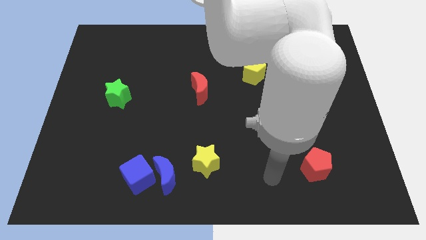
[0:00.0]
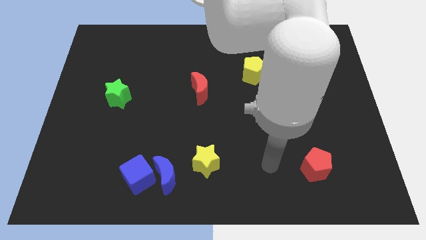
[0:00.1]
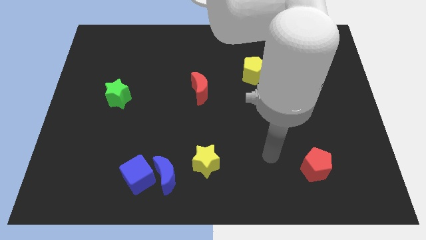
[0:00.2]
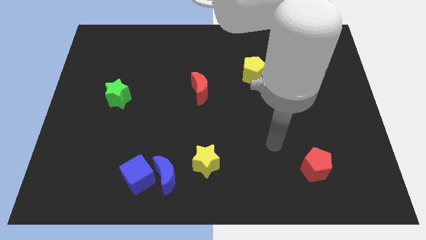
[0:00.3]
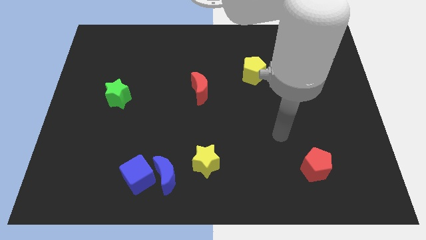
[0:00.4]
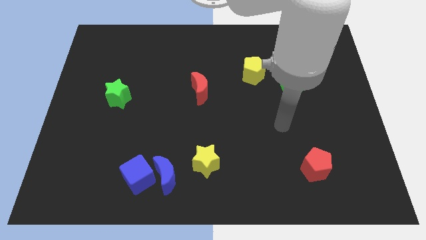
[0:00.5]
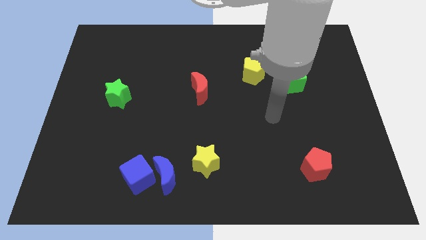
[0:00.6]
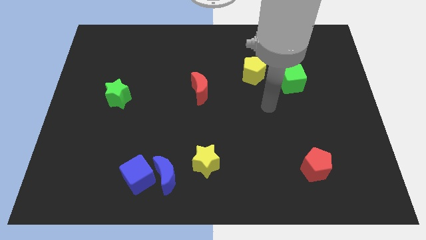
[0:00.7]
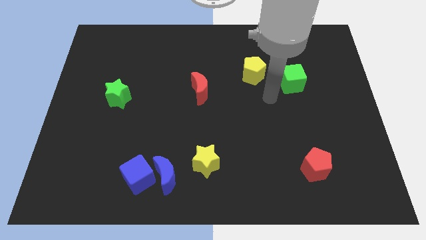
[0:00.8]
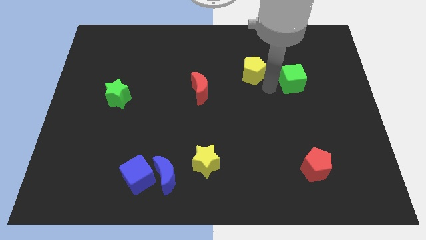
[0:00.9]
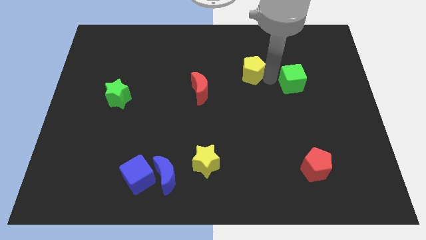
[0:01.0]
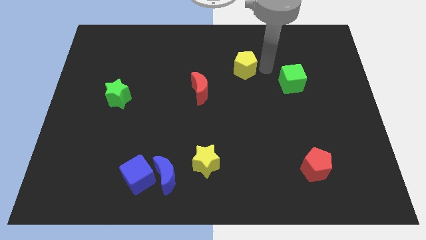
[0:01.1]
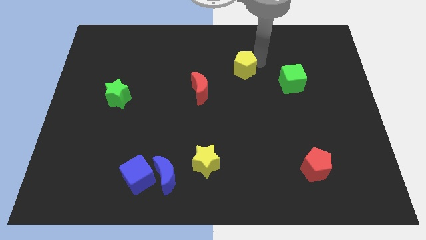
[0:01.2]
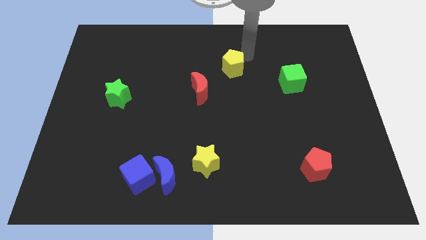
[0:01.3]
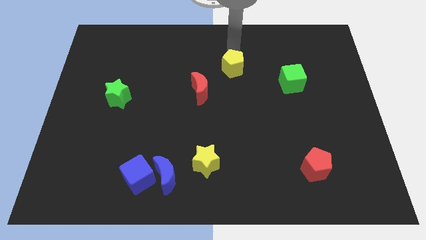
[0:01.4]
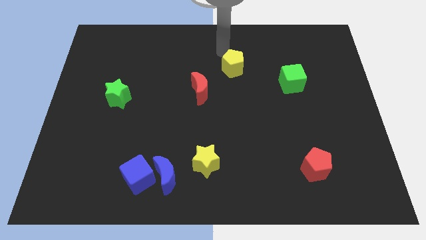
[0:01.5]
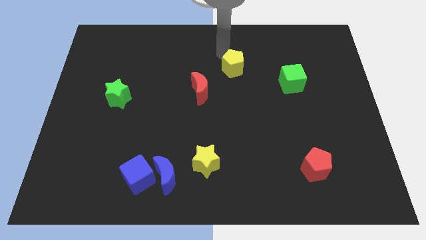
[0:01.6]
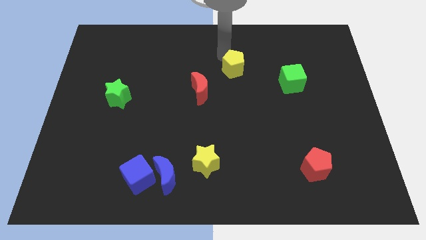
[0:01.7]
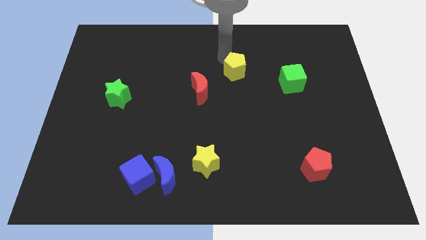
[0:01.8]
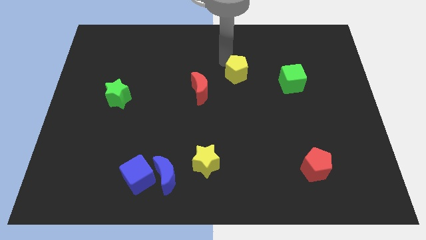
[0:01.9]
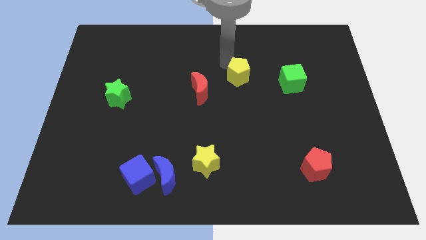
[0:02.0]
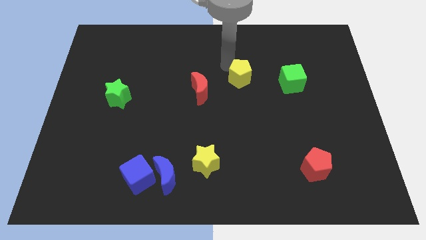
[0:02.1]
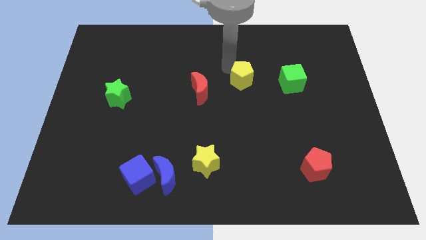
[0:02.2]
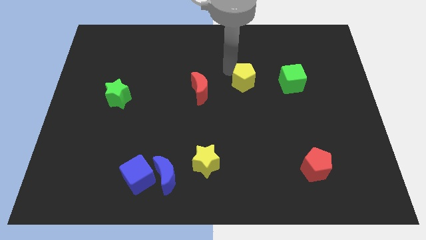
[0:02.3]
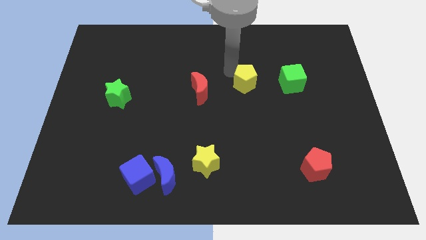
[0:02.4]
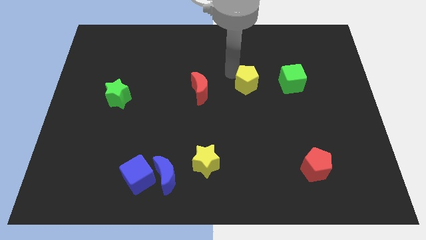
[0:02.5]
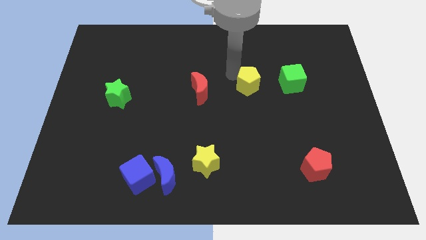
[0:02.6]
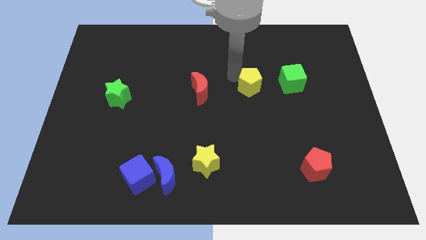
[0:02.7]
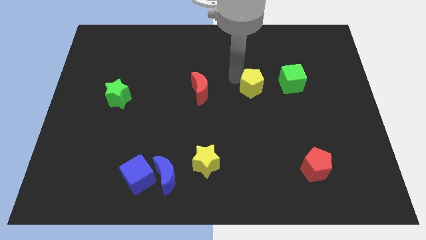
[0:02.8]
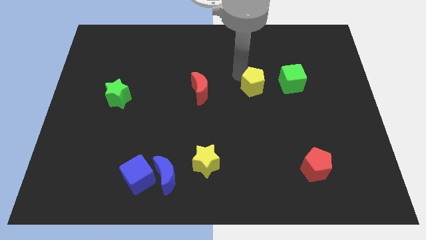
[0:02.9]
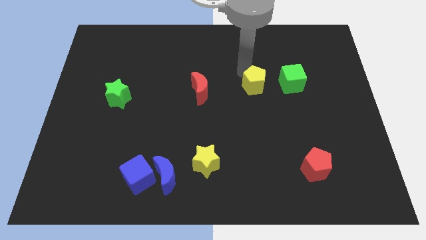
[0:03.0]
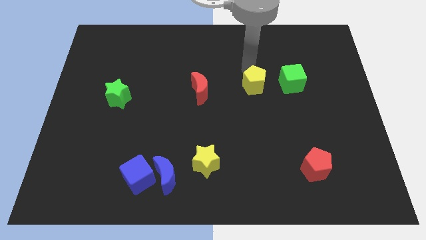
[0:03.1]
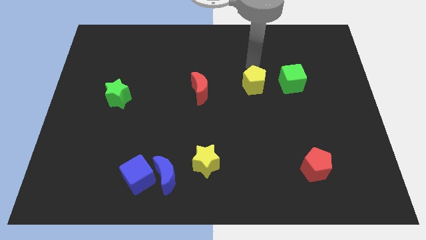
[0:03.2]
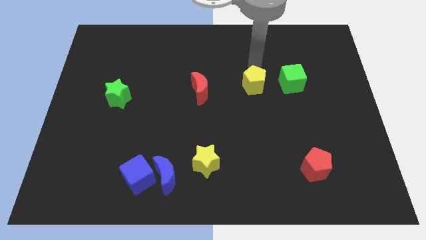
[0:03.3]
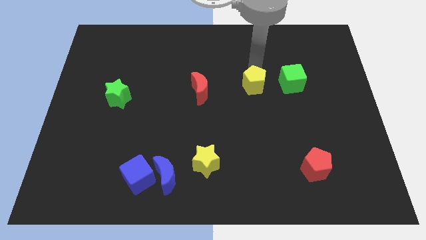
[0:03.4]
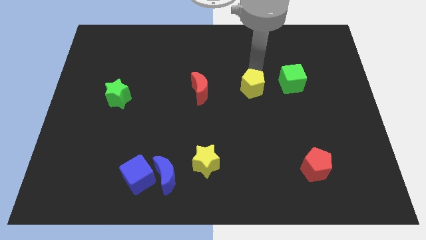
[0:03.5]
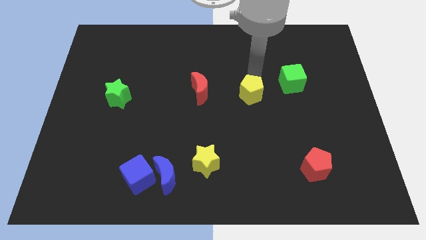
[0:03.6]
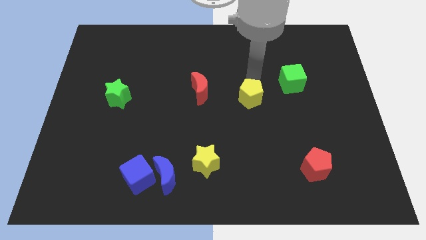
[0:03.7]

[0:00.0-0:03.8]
slightly move the yellow pentagon down

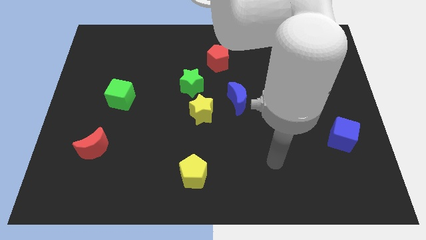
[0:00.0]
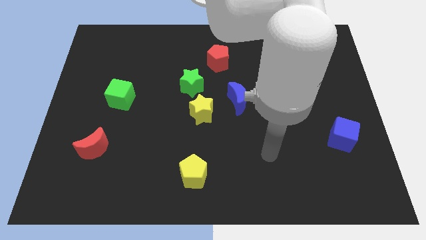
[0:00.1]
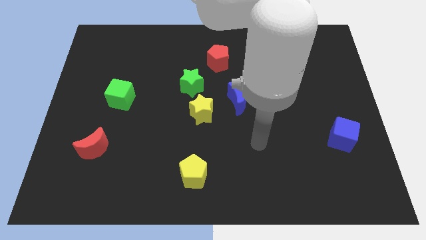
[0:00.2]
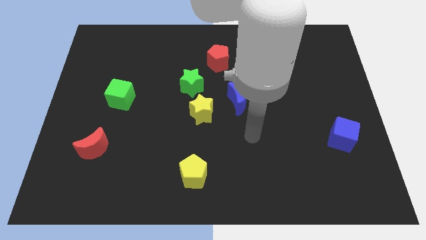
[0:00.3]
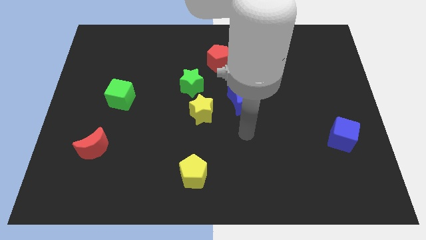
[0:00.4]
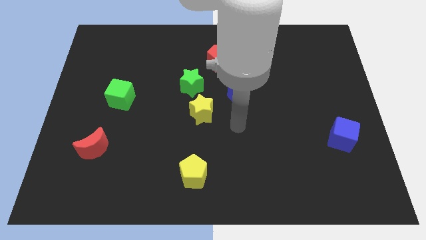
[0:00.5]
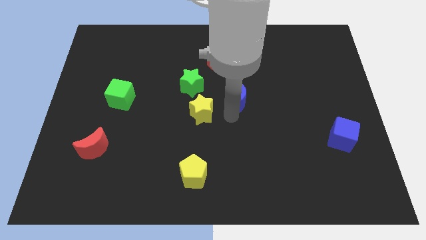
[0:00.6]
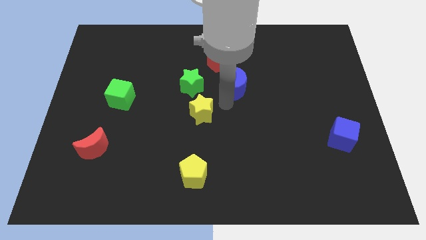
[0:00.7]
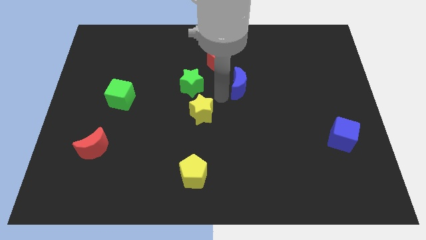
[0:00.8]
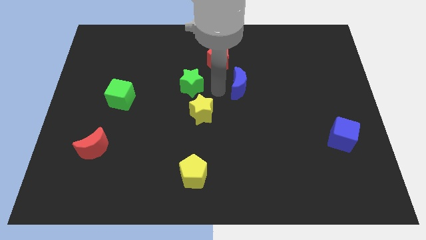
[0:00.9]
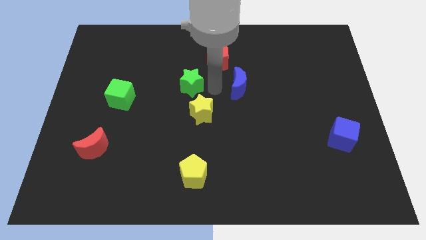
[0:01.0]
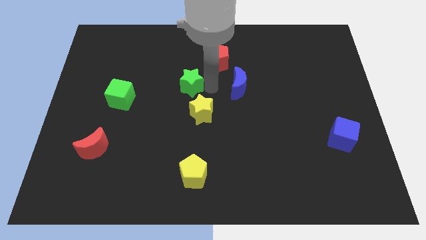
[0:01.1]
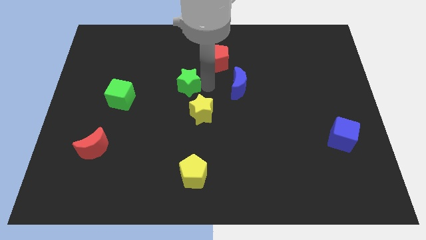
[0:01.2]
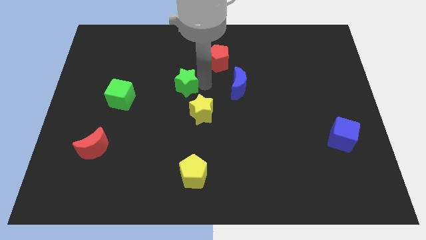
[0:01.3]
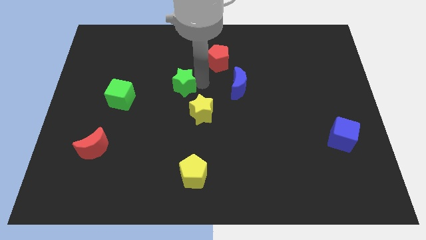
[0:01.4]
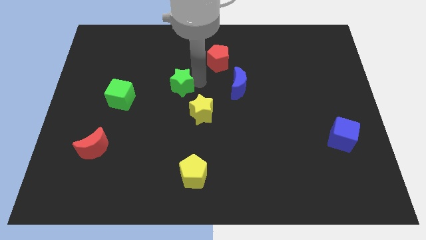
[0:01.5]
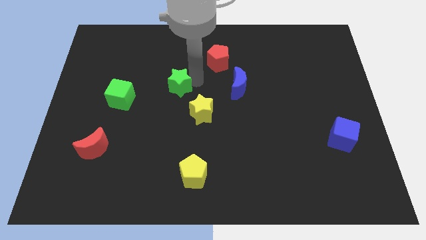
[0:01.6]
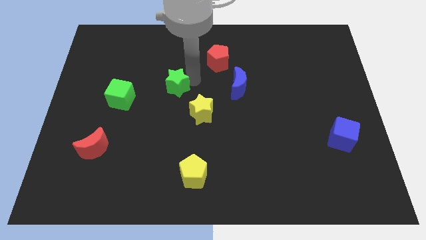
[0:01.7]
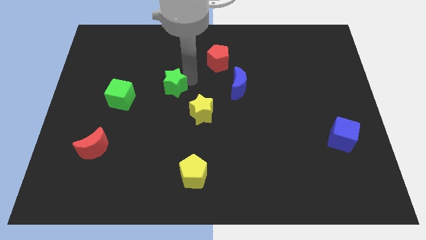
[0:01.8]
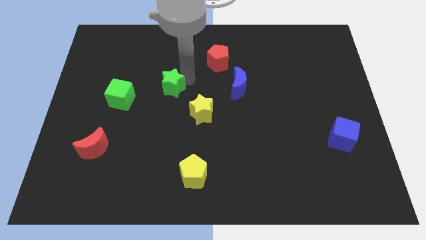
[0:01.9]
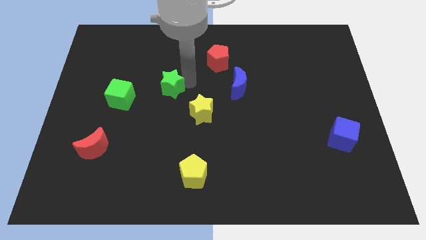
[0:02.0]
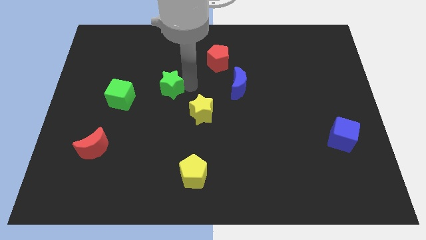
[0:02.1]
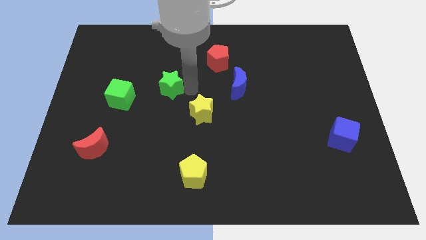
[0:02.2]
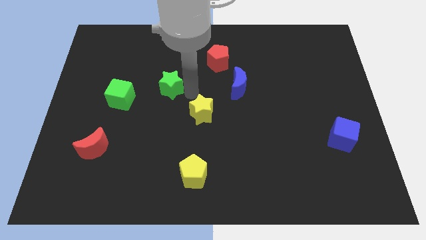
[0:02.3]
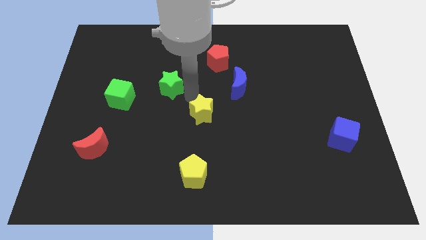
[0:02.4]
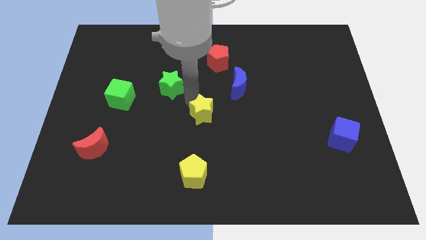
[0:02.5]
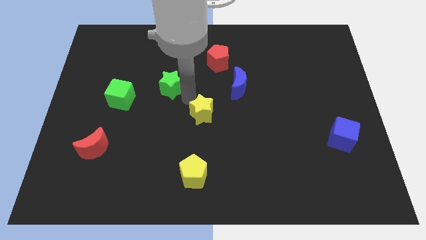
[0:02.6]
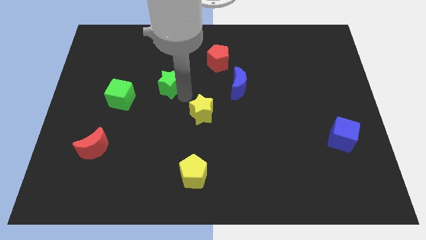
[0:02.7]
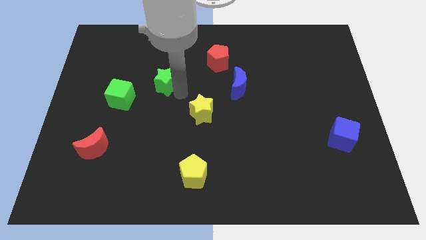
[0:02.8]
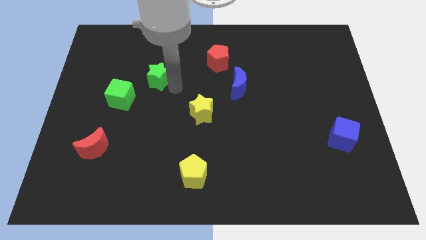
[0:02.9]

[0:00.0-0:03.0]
slightly move the green star to the left

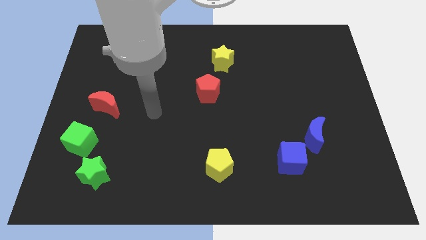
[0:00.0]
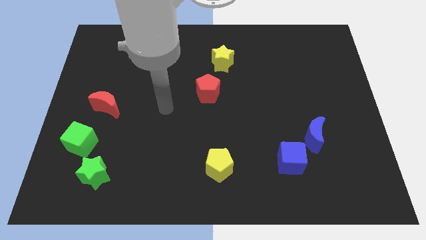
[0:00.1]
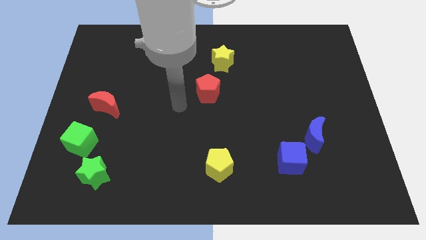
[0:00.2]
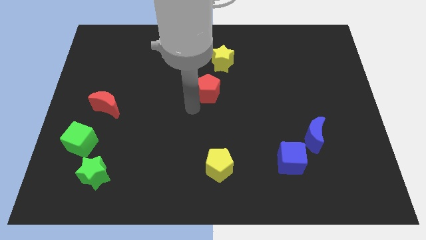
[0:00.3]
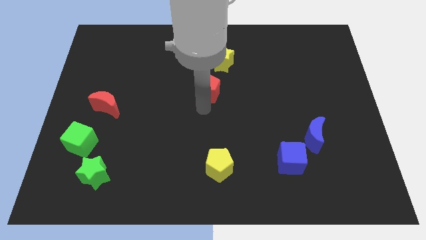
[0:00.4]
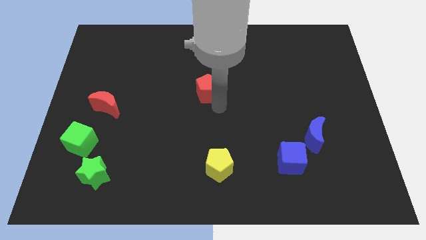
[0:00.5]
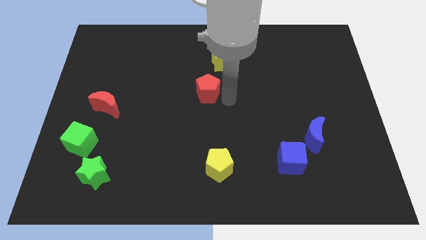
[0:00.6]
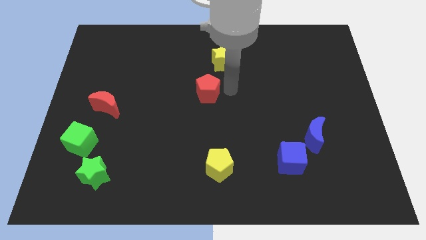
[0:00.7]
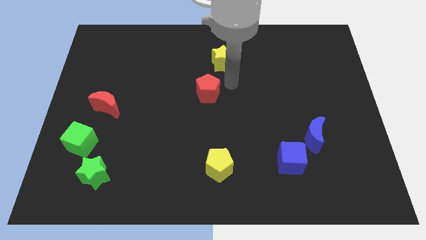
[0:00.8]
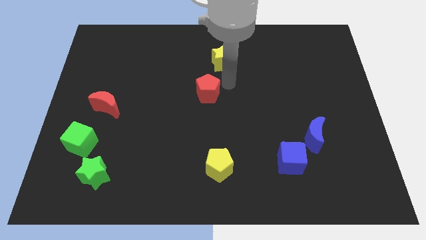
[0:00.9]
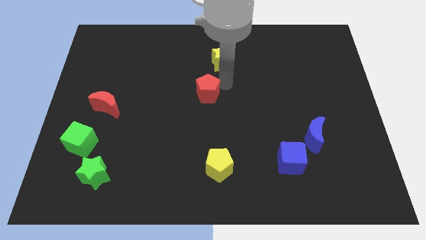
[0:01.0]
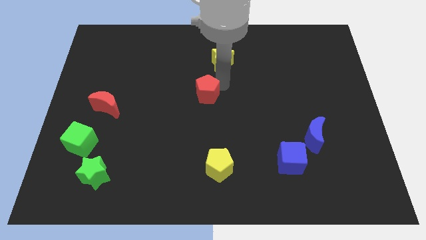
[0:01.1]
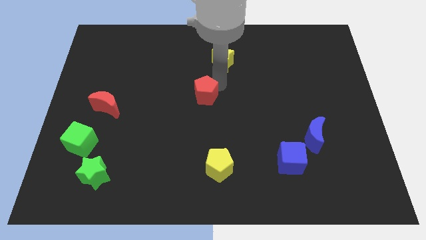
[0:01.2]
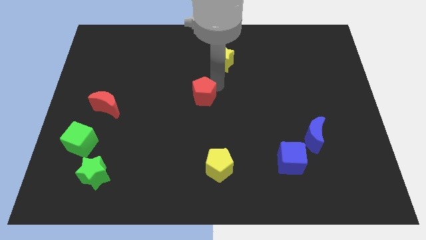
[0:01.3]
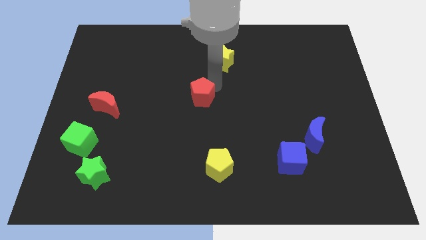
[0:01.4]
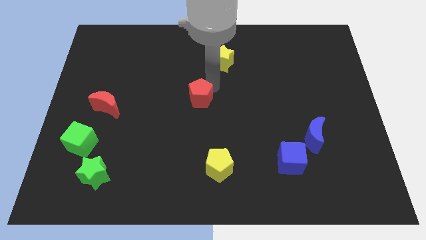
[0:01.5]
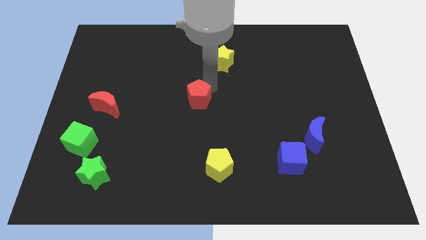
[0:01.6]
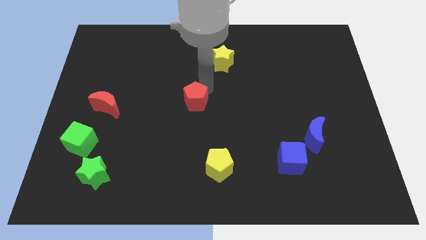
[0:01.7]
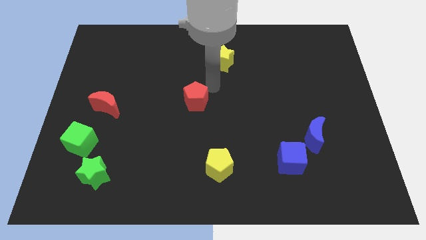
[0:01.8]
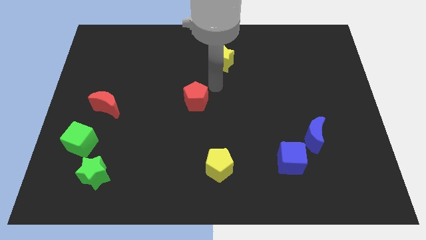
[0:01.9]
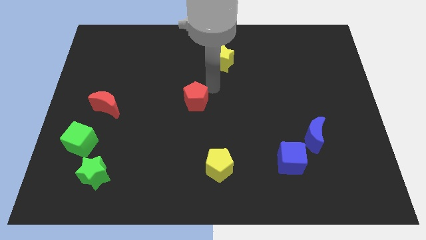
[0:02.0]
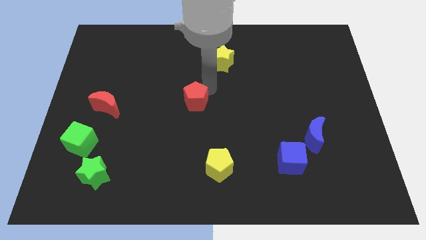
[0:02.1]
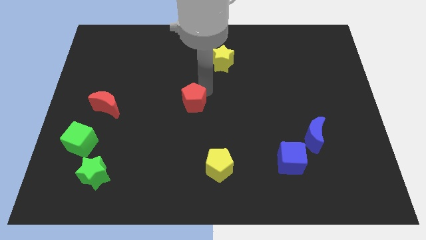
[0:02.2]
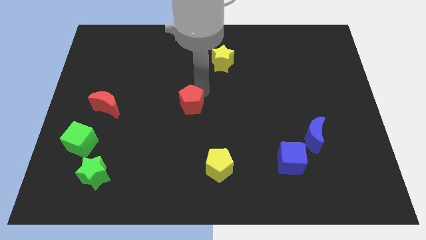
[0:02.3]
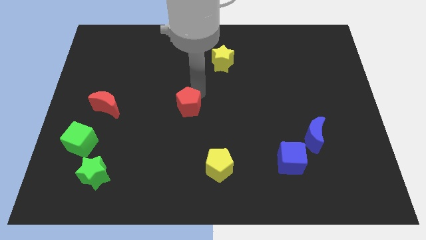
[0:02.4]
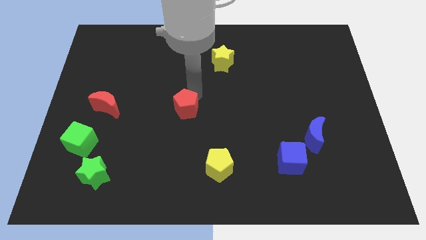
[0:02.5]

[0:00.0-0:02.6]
slightly push the red pentagon down and to the left
